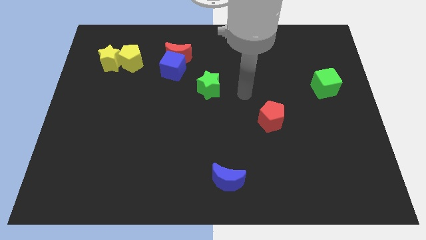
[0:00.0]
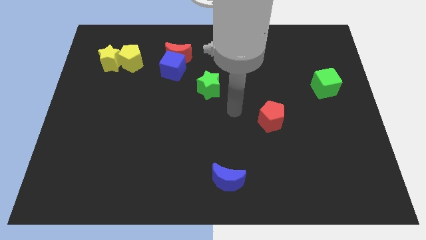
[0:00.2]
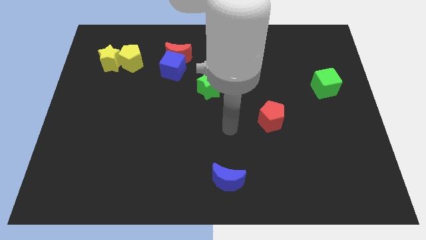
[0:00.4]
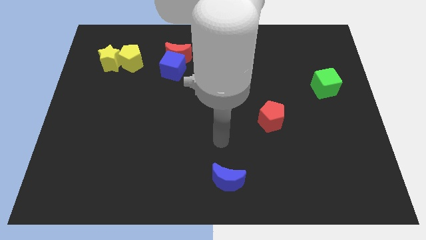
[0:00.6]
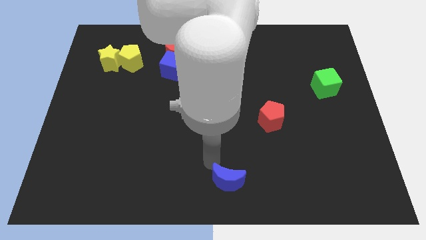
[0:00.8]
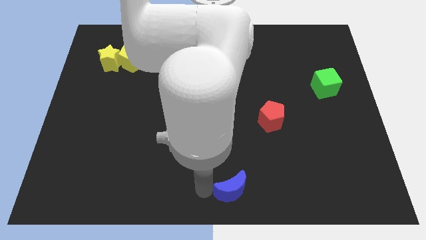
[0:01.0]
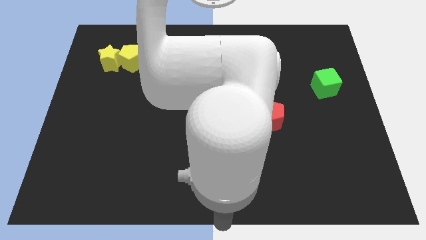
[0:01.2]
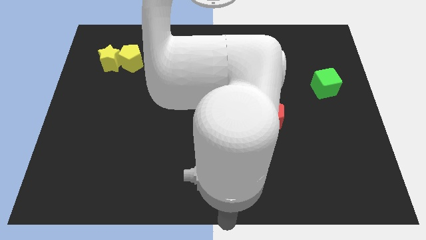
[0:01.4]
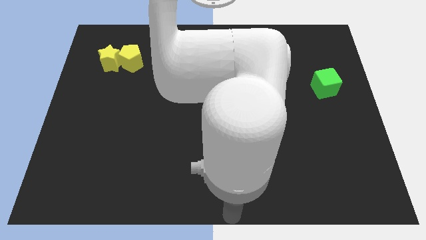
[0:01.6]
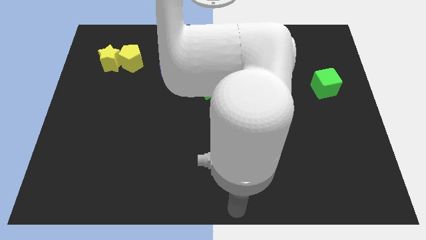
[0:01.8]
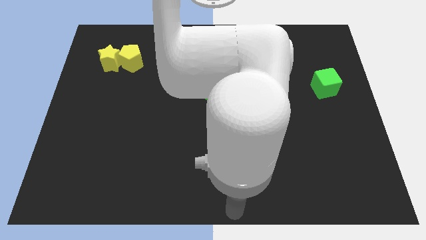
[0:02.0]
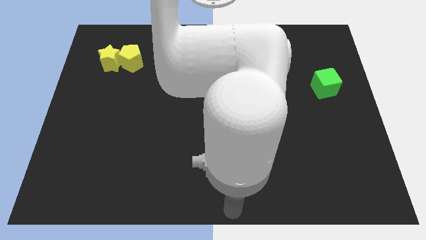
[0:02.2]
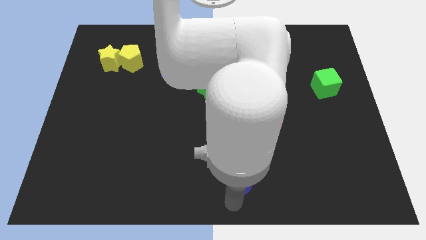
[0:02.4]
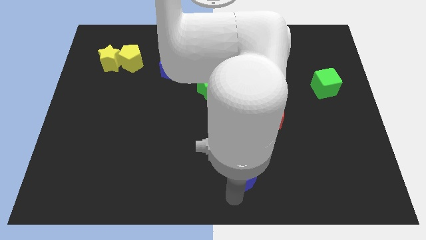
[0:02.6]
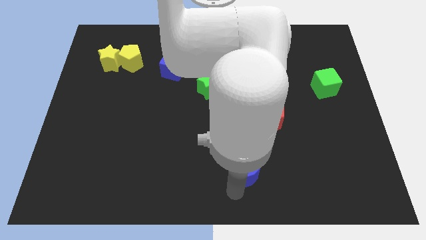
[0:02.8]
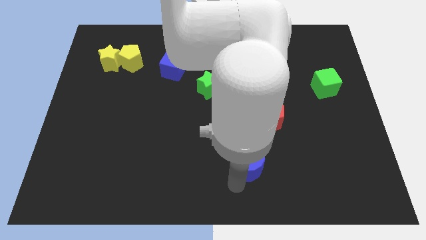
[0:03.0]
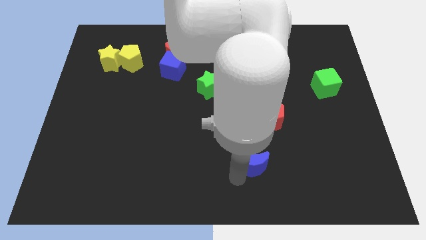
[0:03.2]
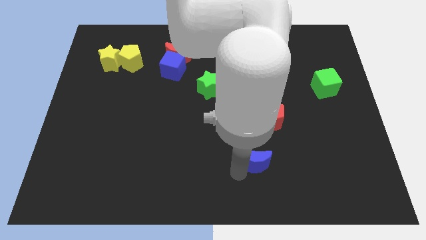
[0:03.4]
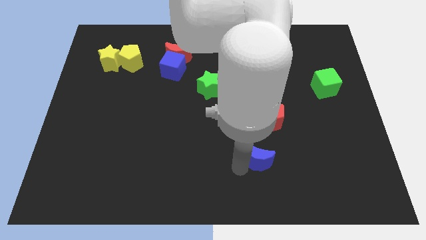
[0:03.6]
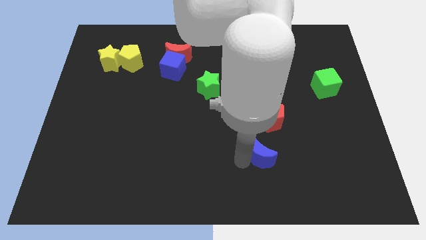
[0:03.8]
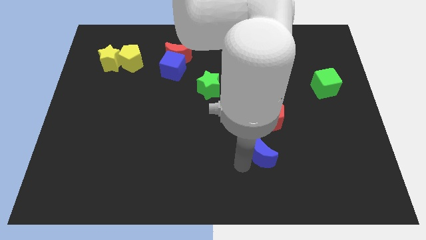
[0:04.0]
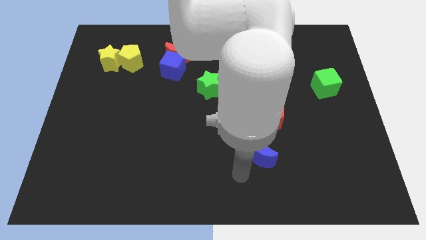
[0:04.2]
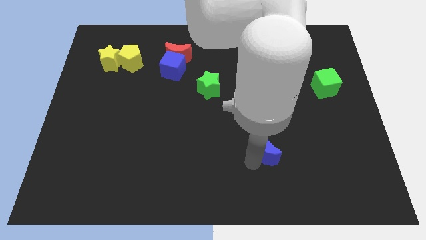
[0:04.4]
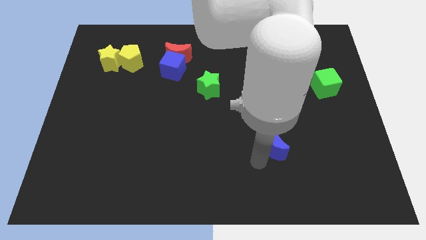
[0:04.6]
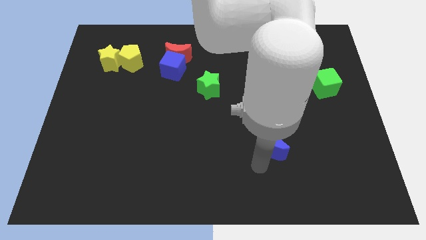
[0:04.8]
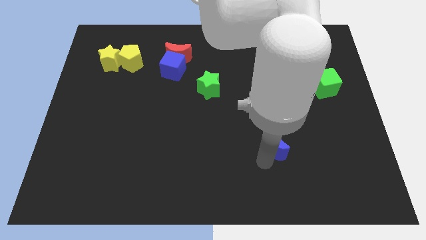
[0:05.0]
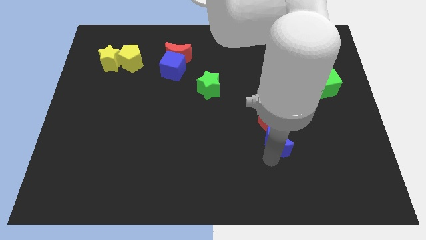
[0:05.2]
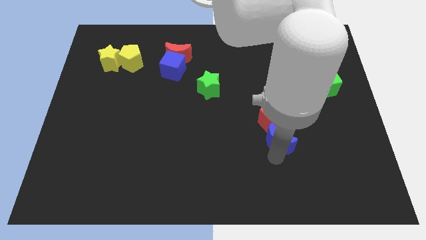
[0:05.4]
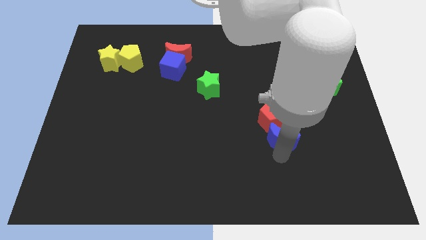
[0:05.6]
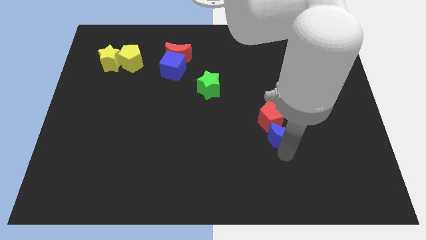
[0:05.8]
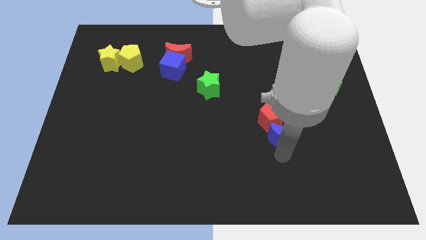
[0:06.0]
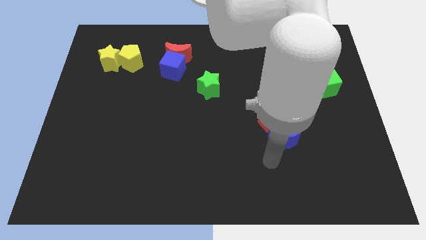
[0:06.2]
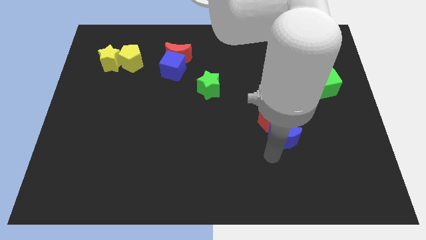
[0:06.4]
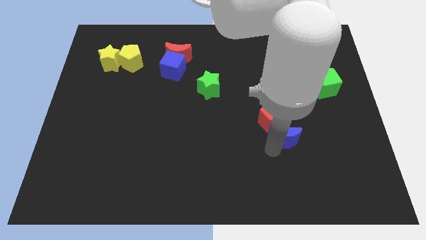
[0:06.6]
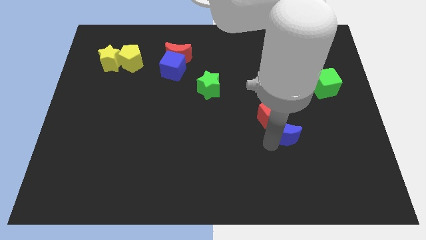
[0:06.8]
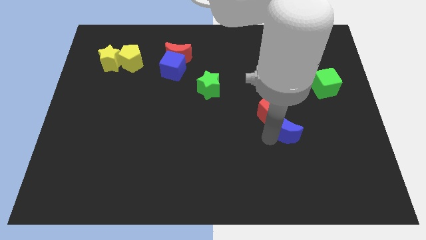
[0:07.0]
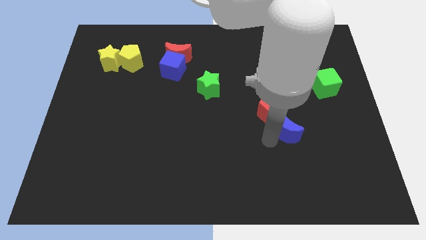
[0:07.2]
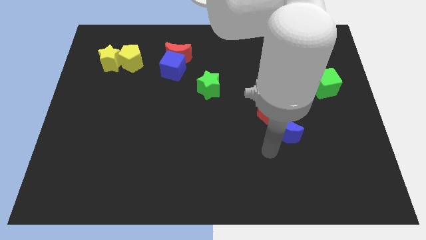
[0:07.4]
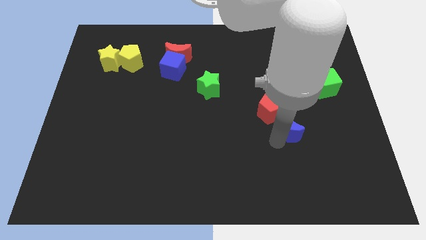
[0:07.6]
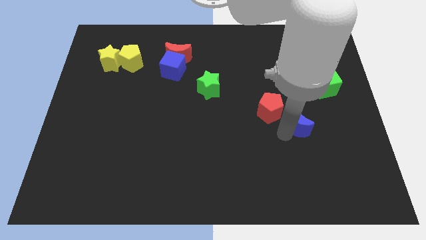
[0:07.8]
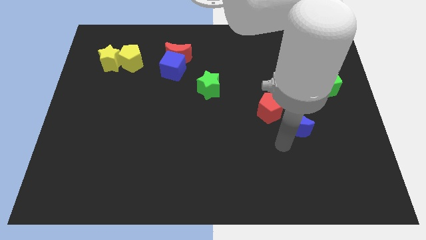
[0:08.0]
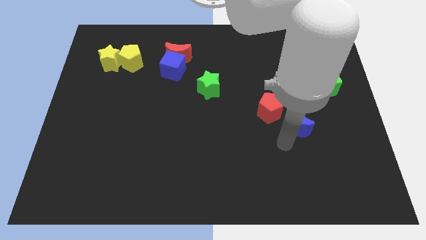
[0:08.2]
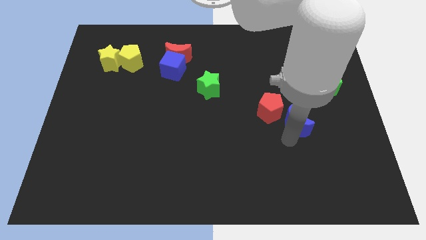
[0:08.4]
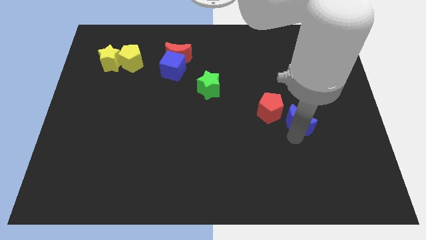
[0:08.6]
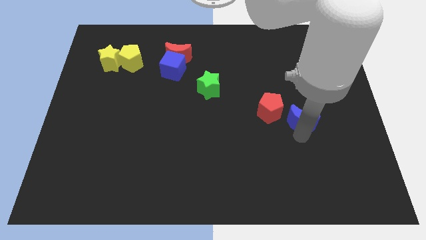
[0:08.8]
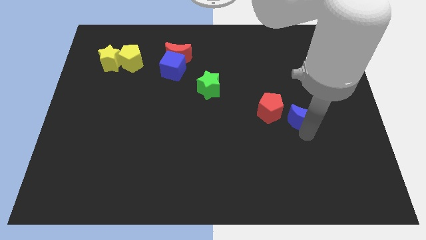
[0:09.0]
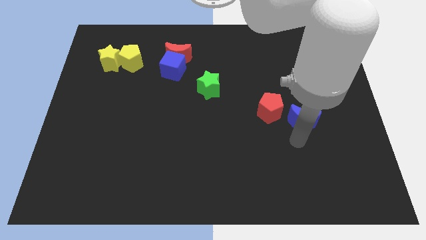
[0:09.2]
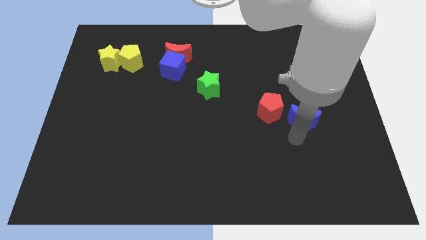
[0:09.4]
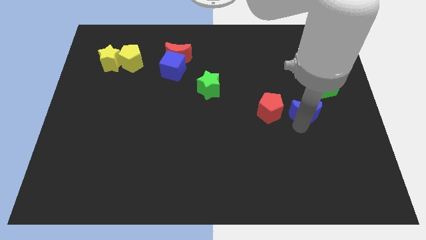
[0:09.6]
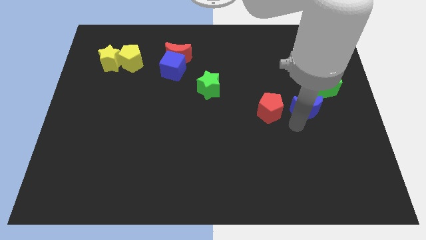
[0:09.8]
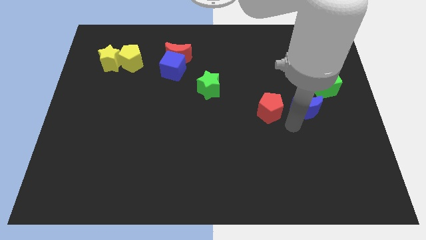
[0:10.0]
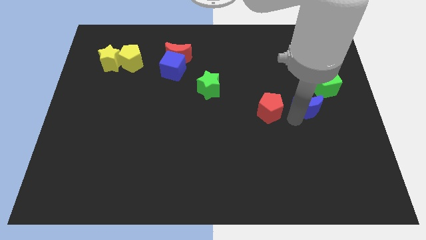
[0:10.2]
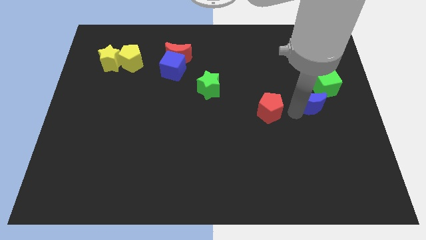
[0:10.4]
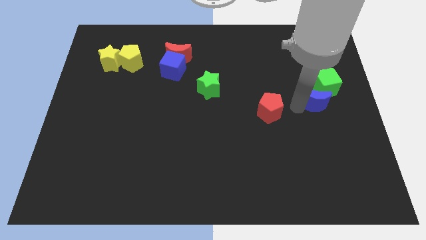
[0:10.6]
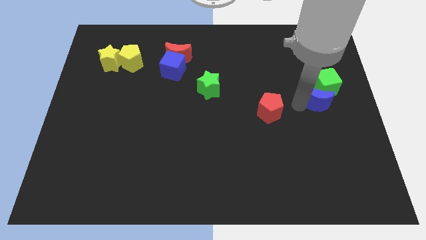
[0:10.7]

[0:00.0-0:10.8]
put the blue moon close to the green cube

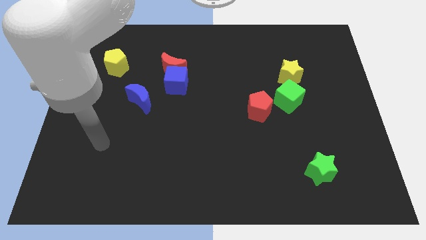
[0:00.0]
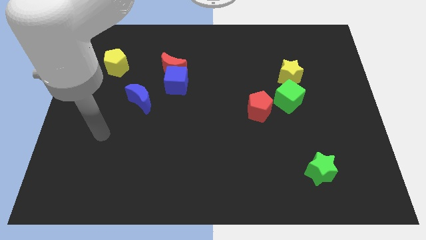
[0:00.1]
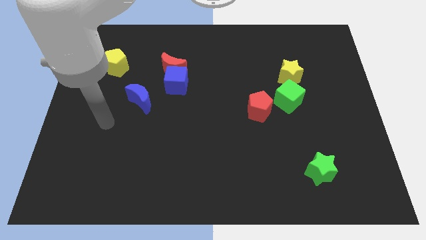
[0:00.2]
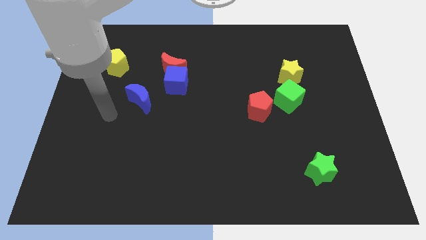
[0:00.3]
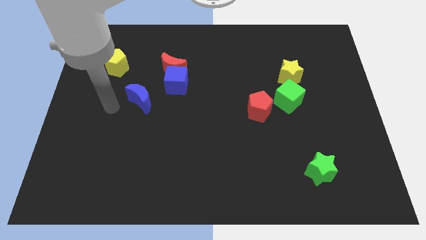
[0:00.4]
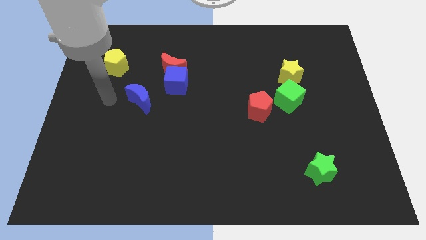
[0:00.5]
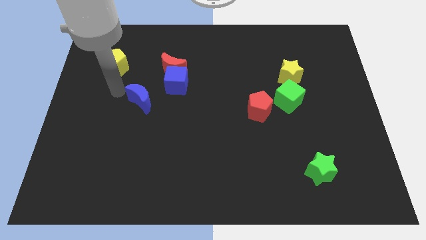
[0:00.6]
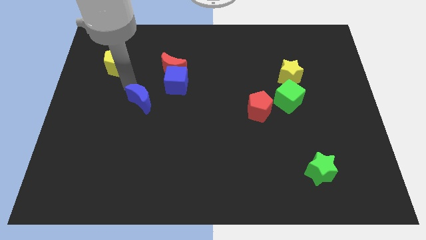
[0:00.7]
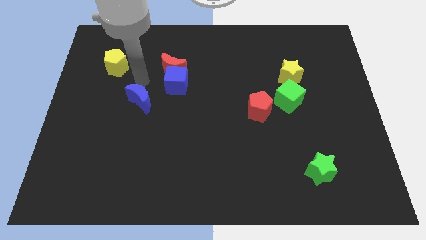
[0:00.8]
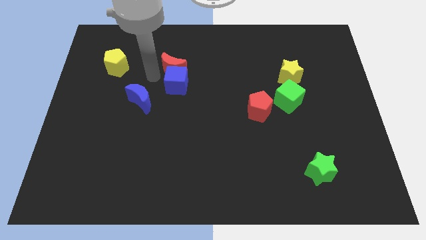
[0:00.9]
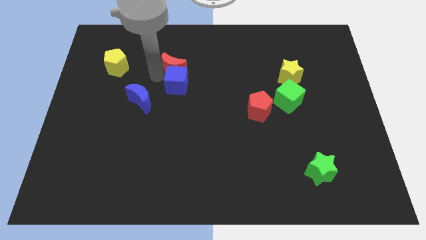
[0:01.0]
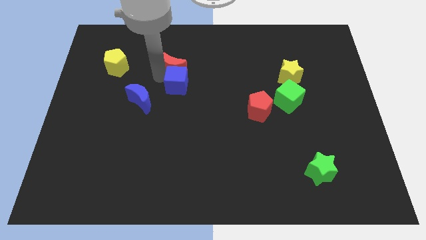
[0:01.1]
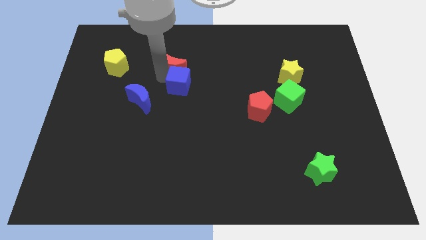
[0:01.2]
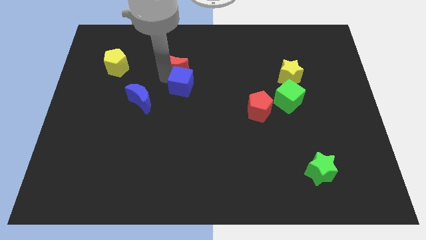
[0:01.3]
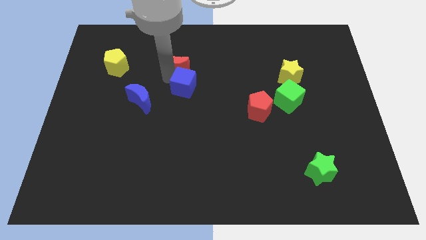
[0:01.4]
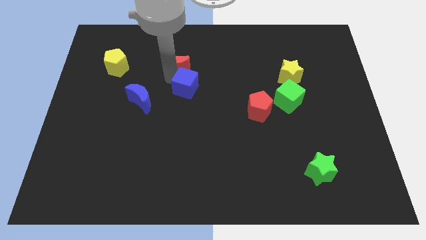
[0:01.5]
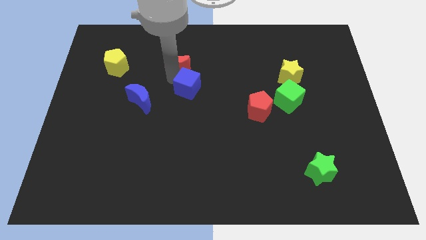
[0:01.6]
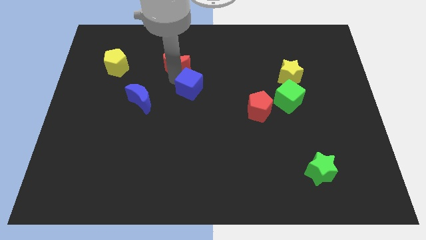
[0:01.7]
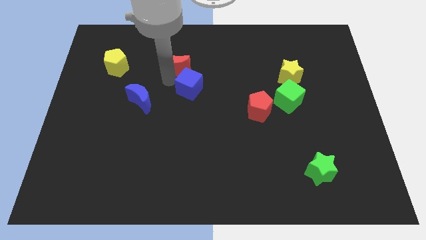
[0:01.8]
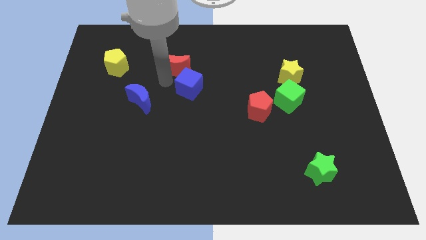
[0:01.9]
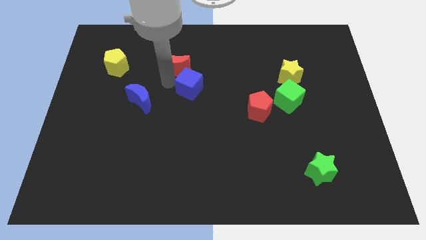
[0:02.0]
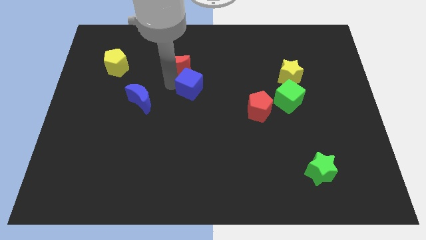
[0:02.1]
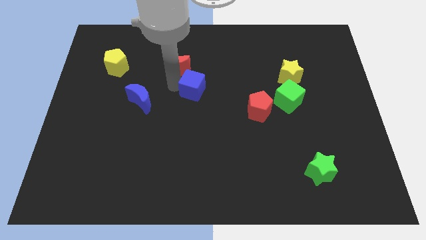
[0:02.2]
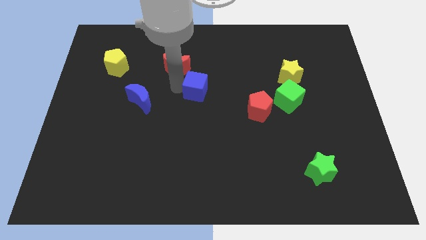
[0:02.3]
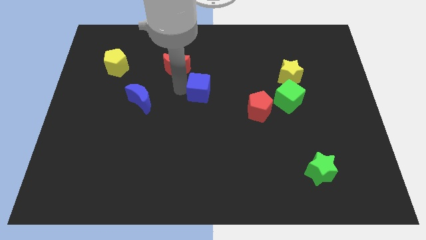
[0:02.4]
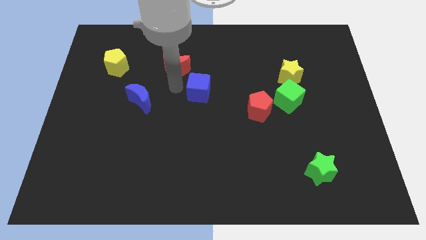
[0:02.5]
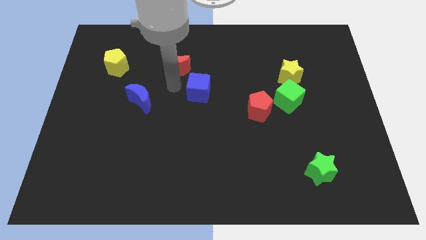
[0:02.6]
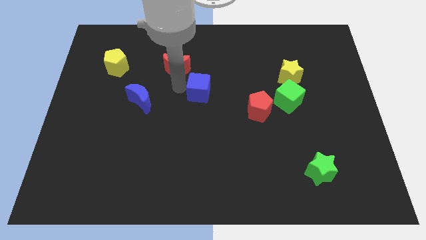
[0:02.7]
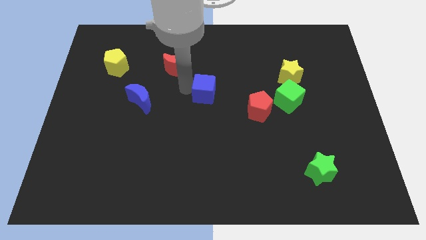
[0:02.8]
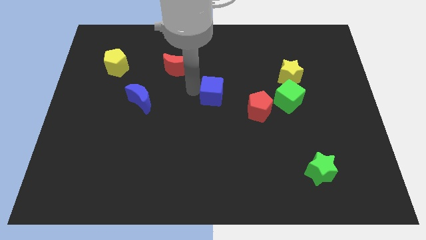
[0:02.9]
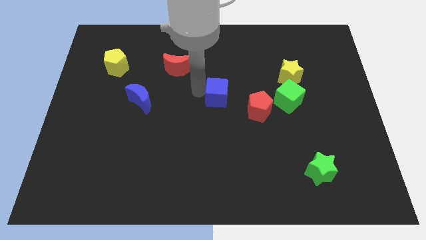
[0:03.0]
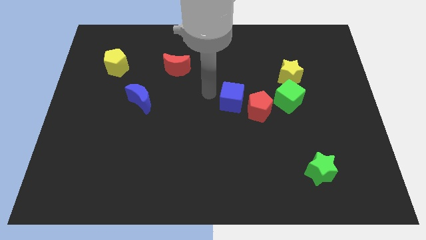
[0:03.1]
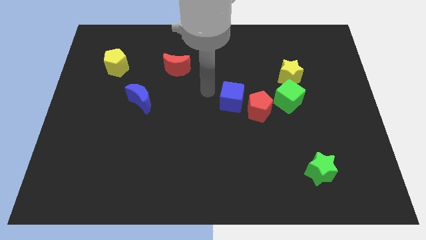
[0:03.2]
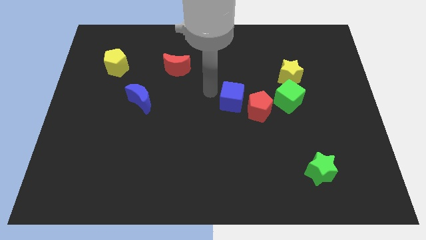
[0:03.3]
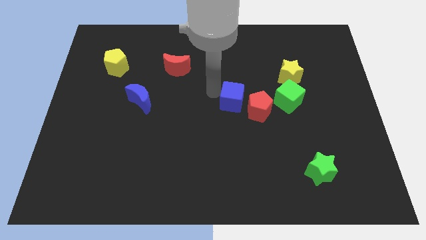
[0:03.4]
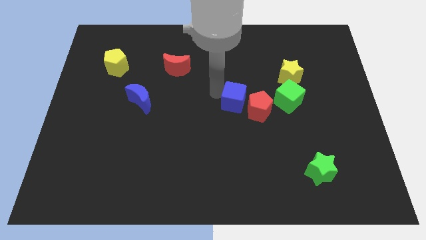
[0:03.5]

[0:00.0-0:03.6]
put the blue cube next to the red pentagon
